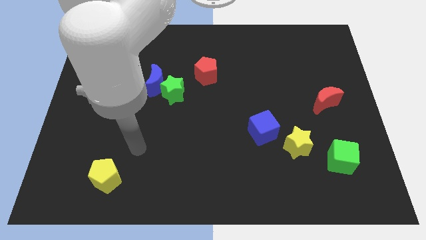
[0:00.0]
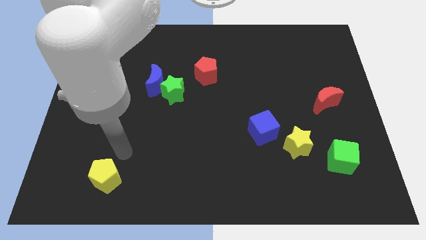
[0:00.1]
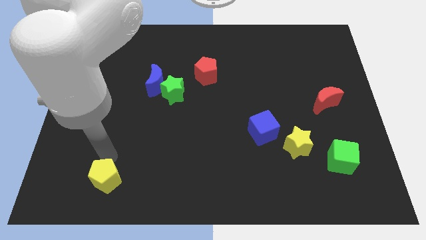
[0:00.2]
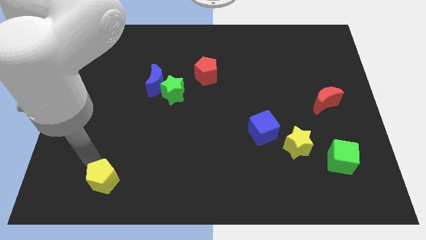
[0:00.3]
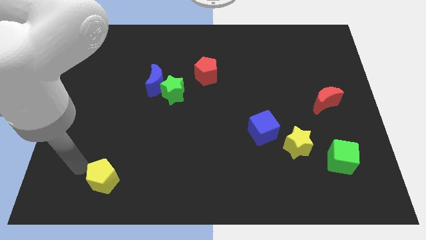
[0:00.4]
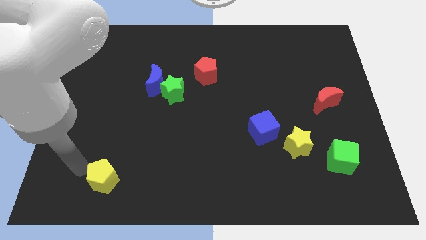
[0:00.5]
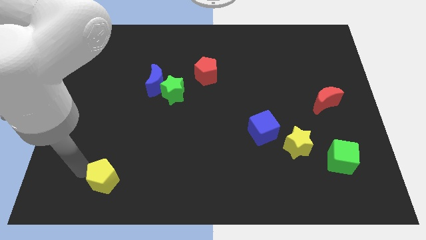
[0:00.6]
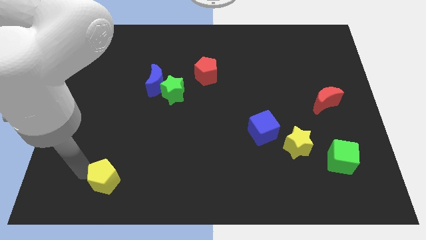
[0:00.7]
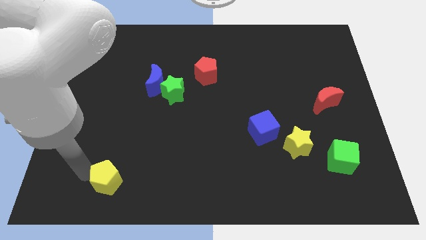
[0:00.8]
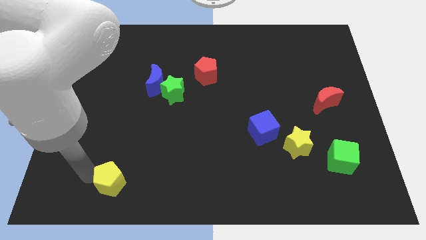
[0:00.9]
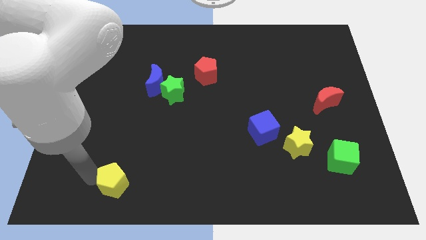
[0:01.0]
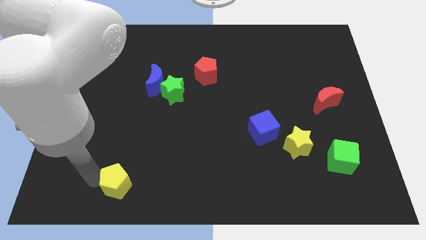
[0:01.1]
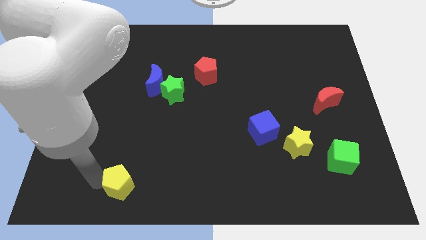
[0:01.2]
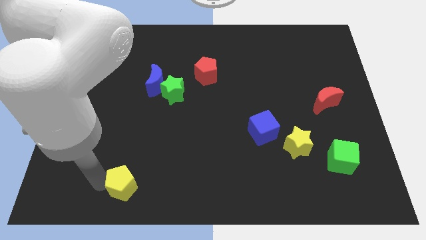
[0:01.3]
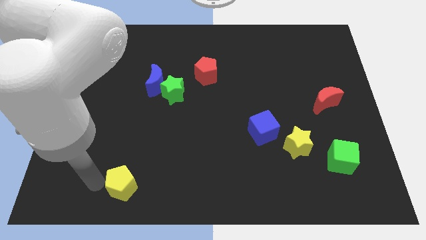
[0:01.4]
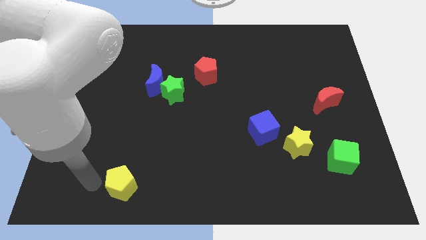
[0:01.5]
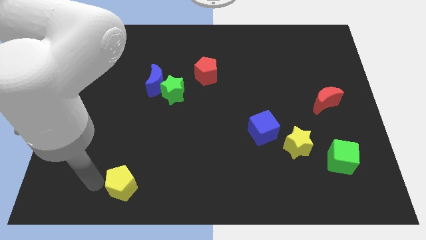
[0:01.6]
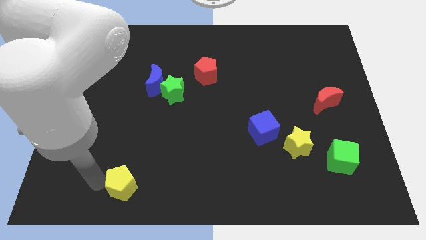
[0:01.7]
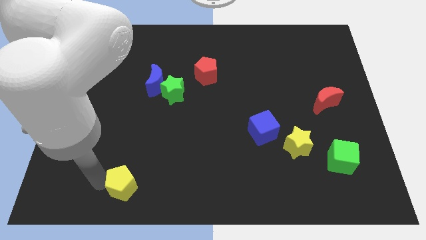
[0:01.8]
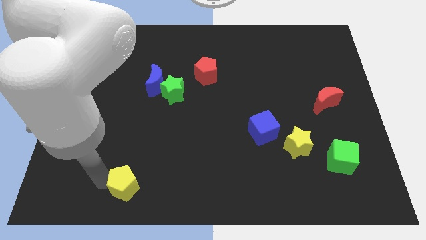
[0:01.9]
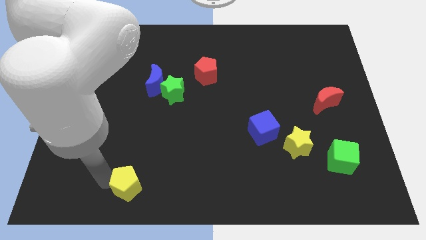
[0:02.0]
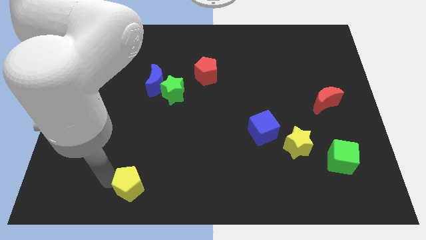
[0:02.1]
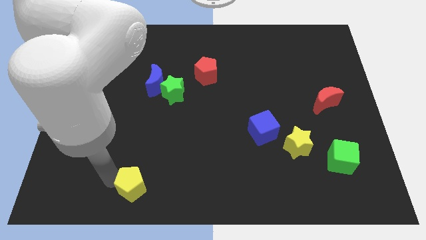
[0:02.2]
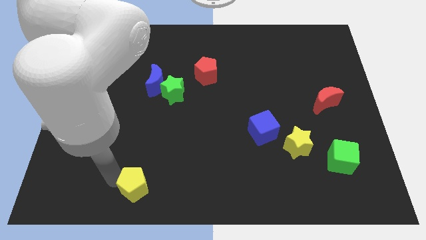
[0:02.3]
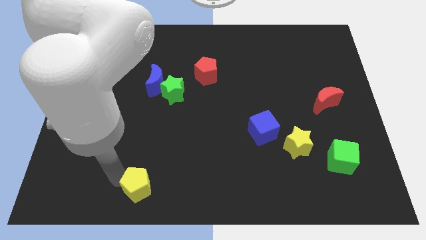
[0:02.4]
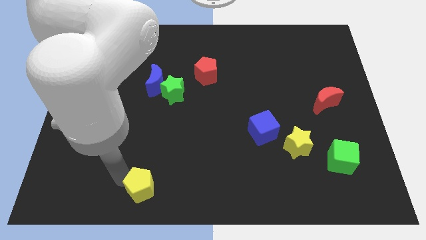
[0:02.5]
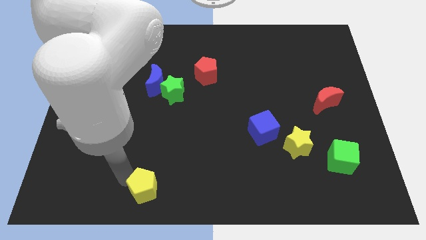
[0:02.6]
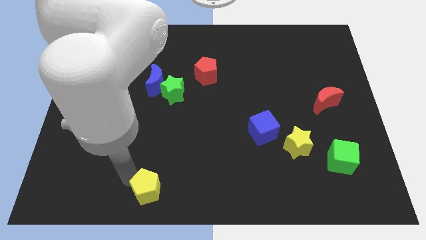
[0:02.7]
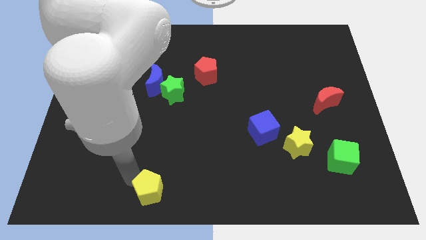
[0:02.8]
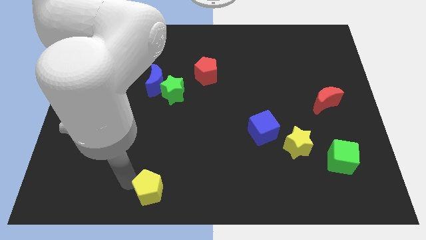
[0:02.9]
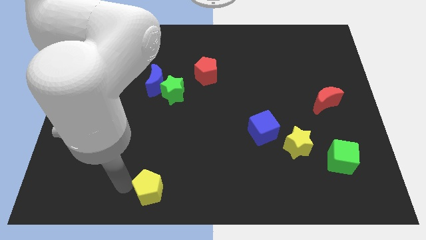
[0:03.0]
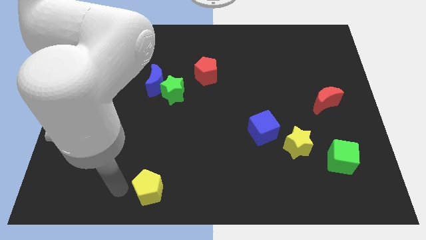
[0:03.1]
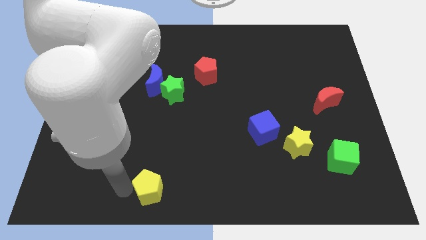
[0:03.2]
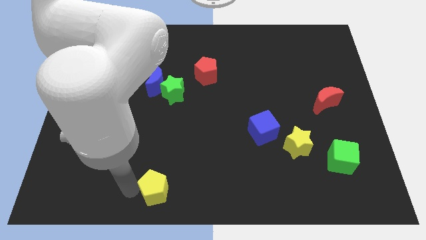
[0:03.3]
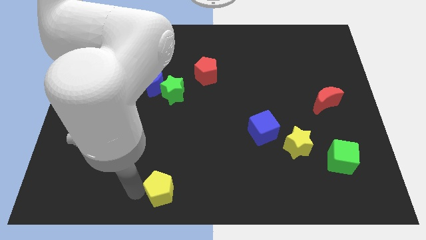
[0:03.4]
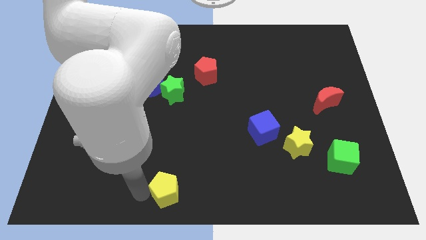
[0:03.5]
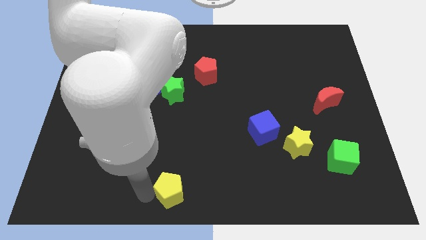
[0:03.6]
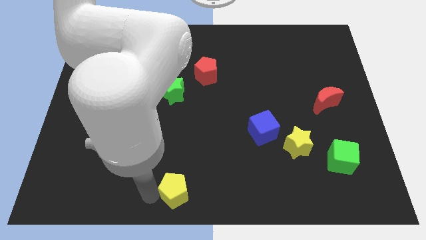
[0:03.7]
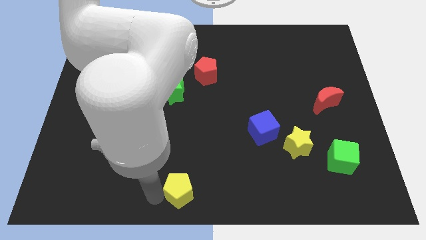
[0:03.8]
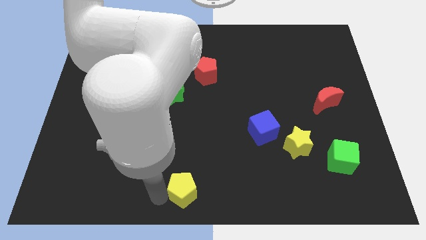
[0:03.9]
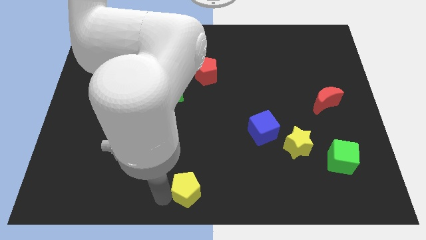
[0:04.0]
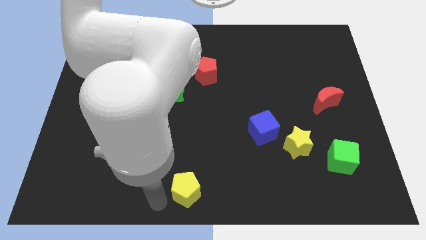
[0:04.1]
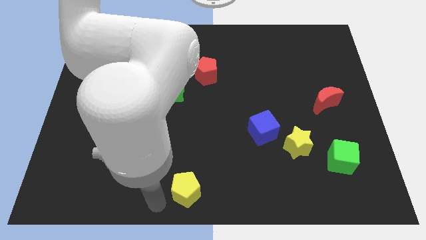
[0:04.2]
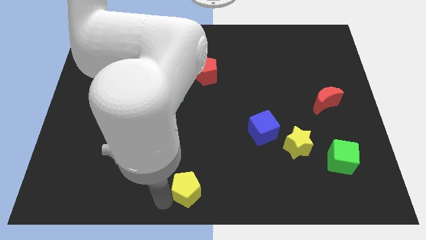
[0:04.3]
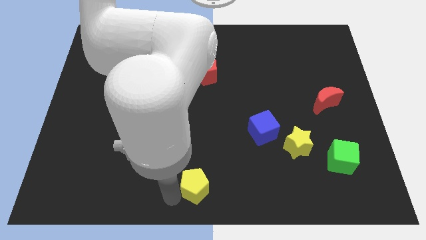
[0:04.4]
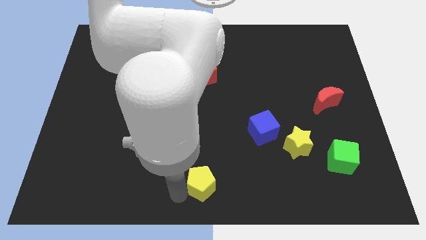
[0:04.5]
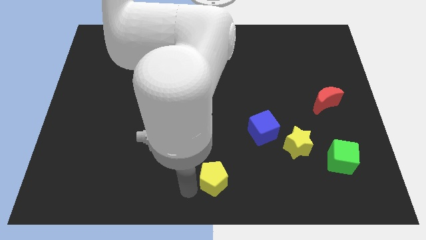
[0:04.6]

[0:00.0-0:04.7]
slide the yellow pentagon right

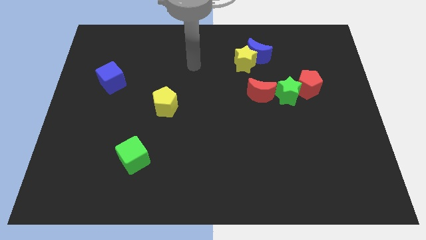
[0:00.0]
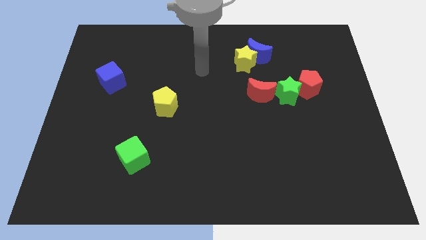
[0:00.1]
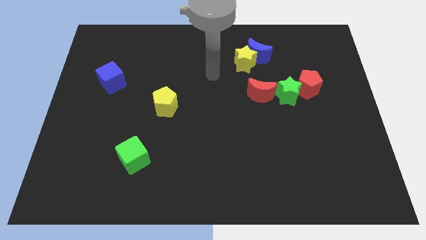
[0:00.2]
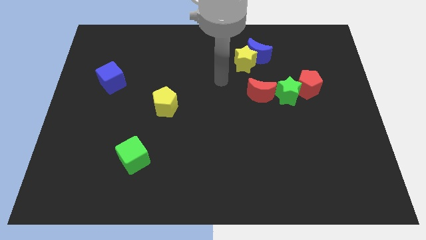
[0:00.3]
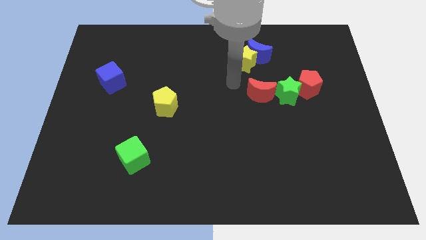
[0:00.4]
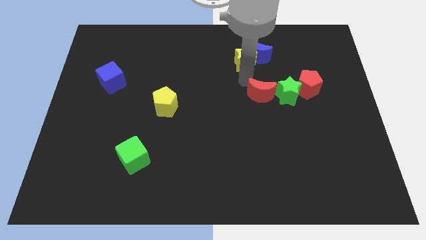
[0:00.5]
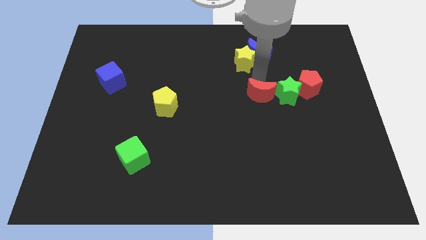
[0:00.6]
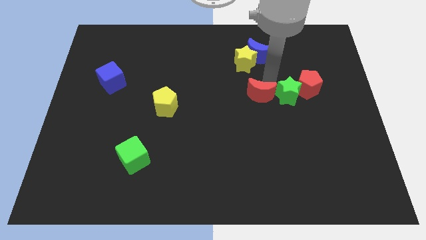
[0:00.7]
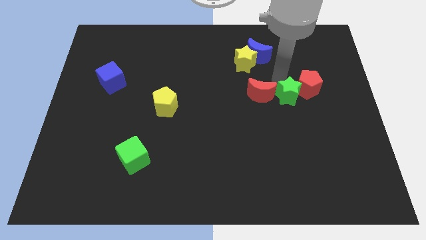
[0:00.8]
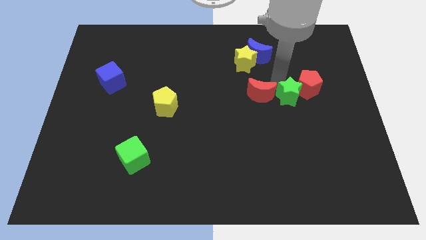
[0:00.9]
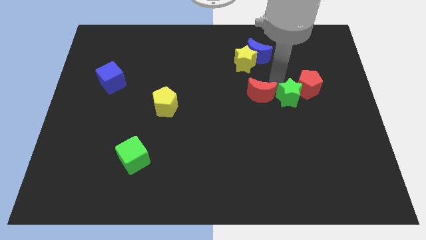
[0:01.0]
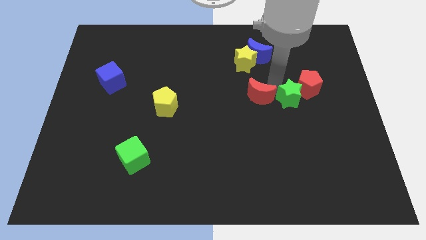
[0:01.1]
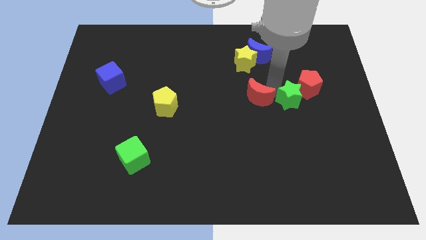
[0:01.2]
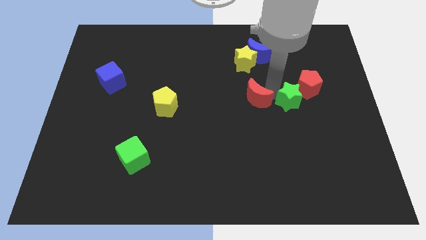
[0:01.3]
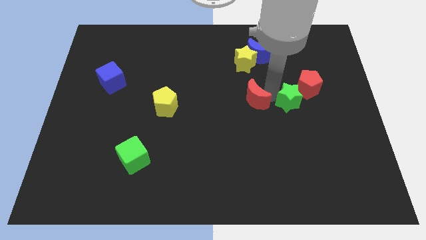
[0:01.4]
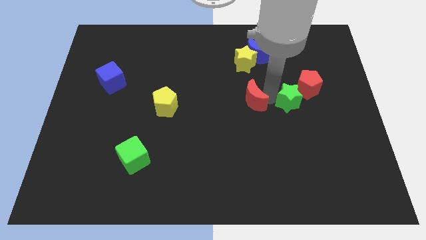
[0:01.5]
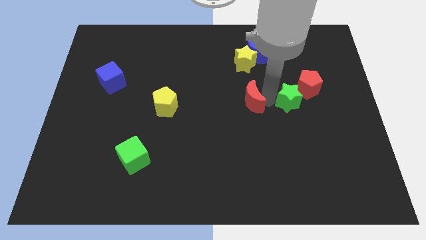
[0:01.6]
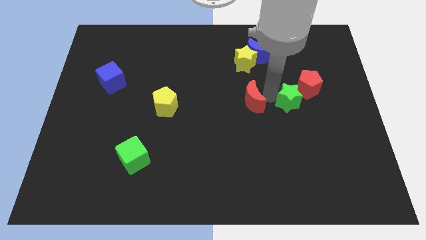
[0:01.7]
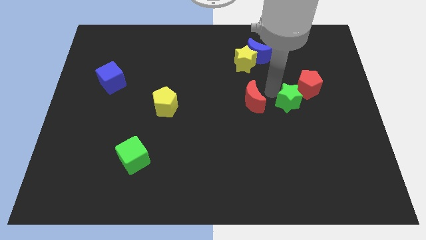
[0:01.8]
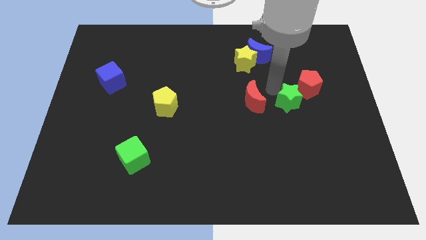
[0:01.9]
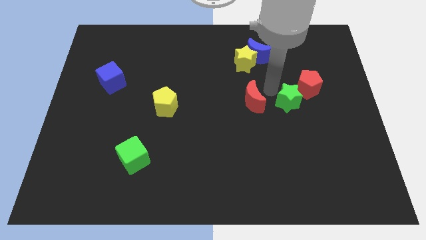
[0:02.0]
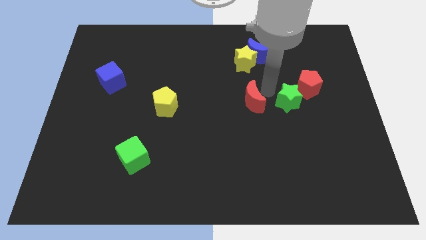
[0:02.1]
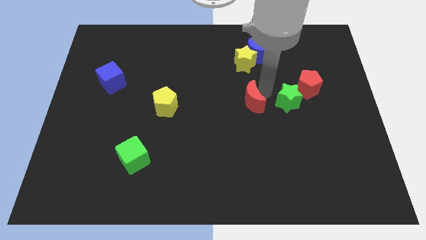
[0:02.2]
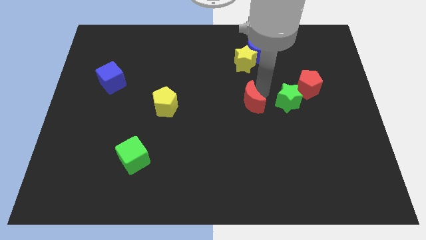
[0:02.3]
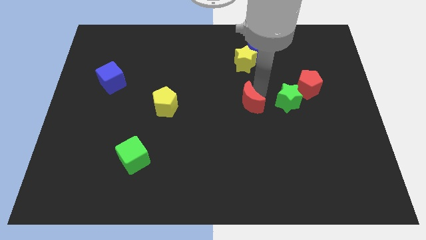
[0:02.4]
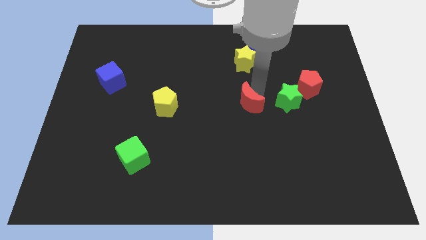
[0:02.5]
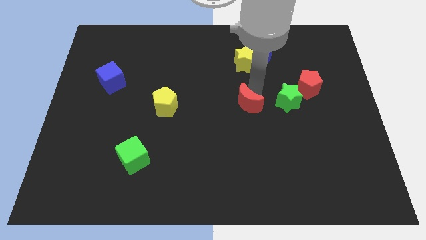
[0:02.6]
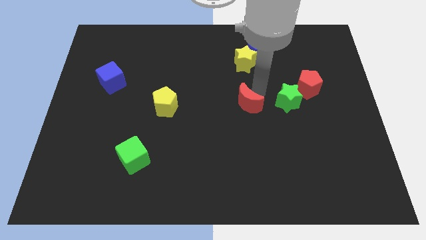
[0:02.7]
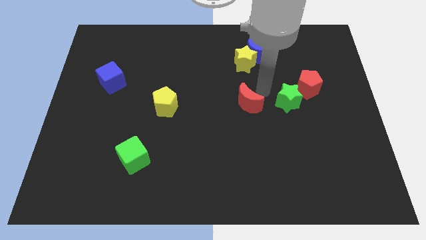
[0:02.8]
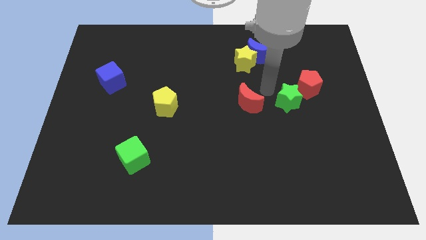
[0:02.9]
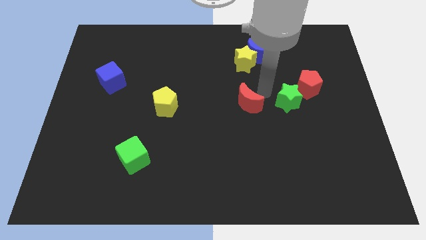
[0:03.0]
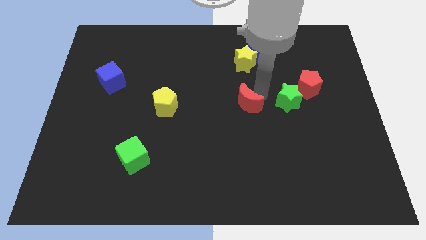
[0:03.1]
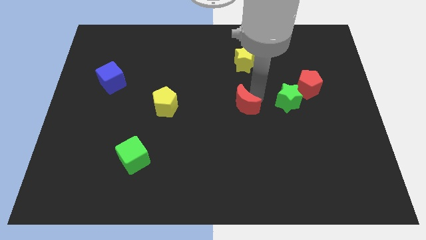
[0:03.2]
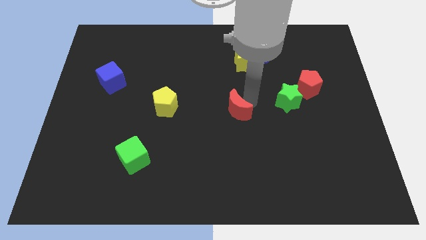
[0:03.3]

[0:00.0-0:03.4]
move the red moon diagonally downwards and to the left slightly

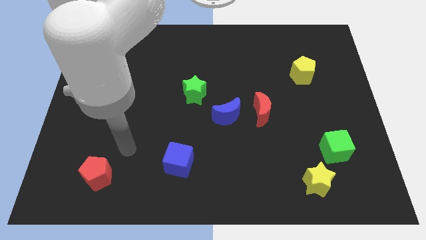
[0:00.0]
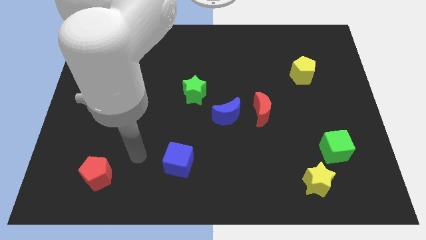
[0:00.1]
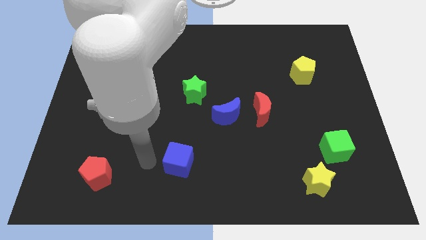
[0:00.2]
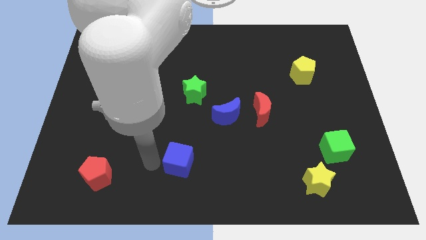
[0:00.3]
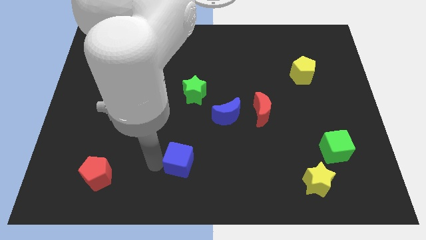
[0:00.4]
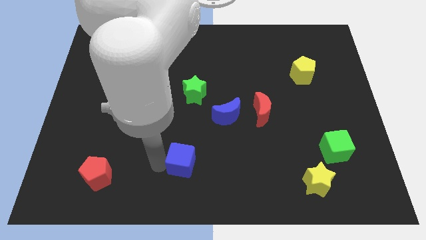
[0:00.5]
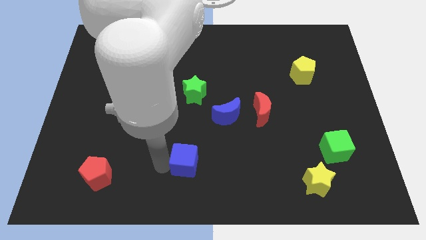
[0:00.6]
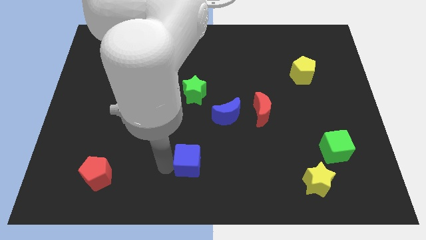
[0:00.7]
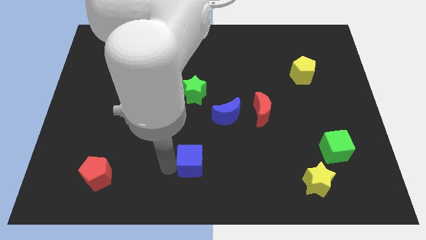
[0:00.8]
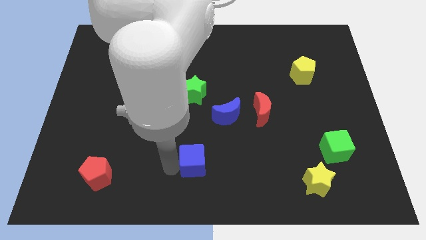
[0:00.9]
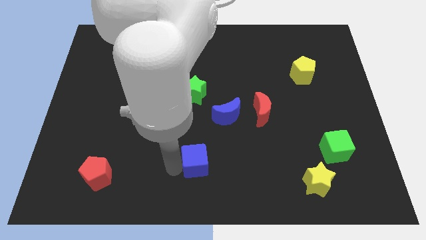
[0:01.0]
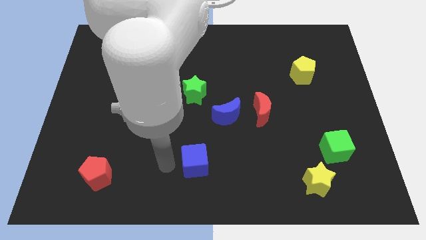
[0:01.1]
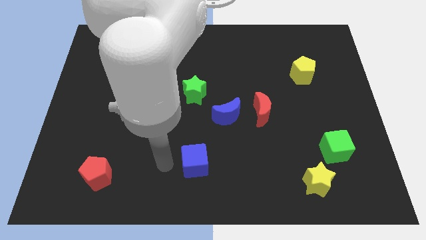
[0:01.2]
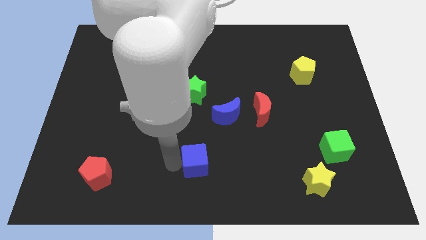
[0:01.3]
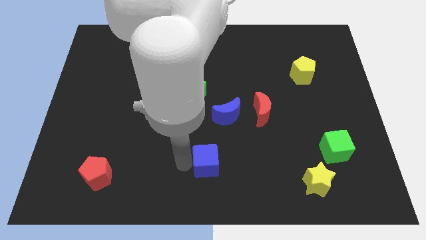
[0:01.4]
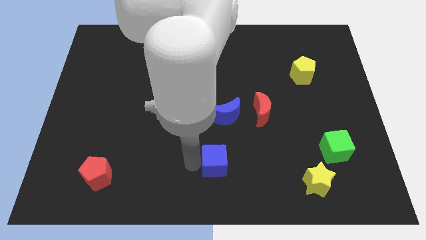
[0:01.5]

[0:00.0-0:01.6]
push the blue cube to the right a bit
